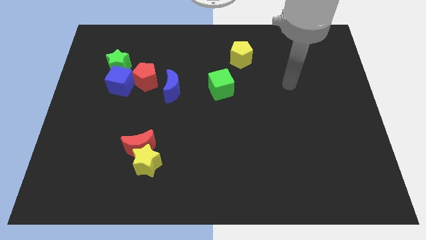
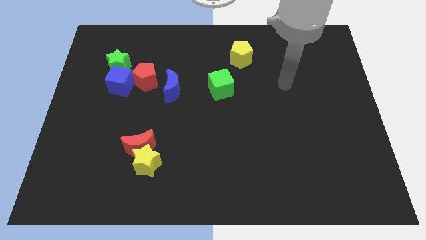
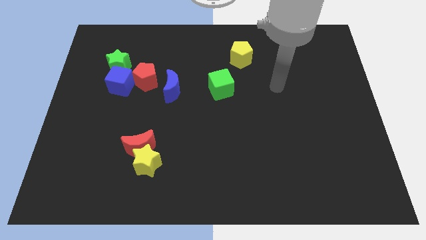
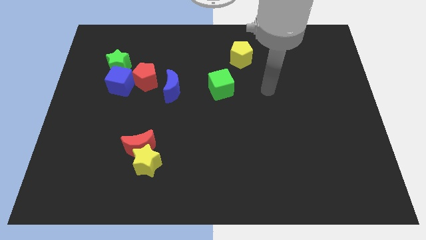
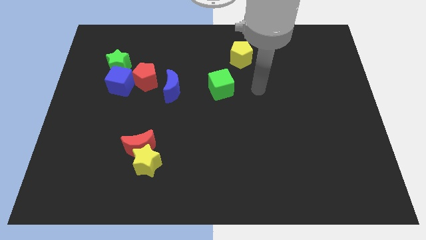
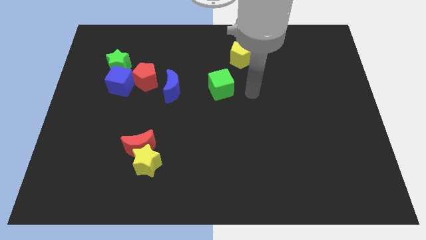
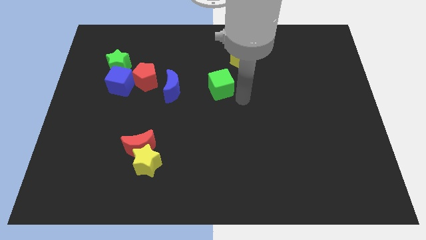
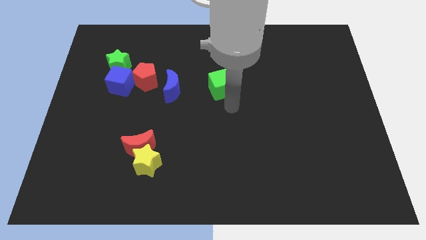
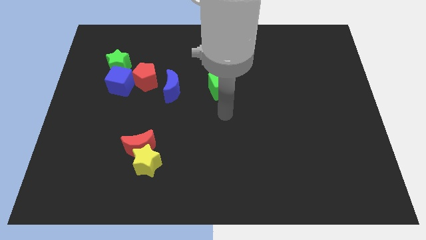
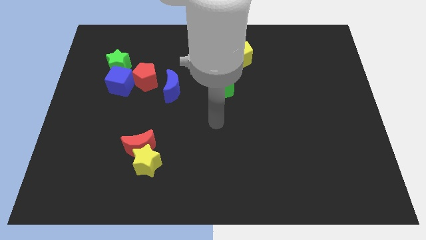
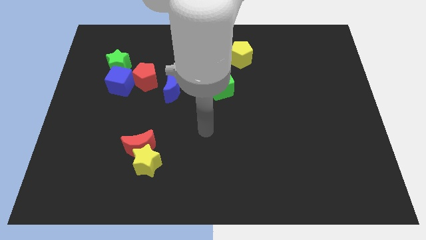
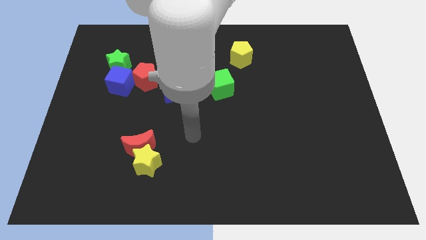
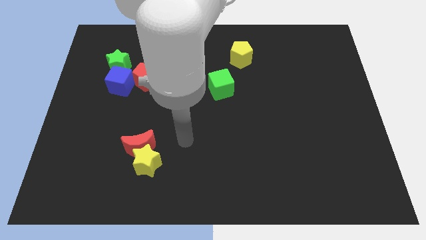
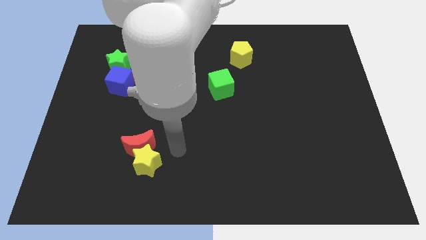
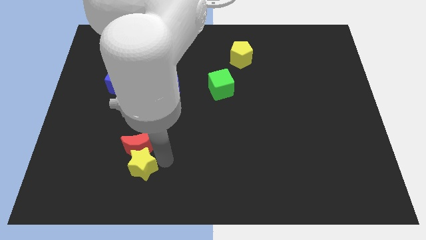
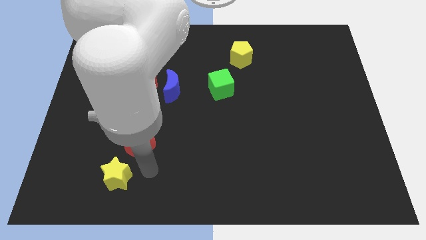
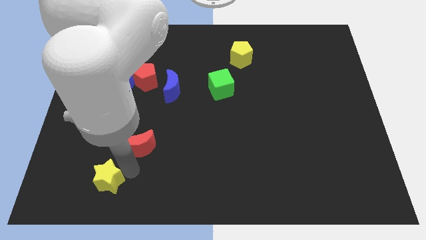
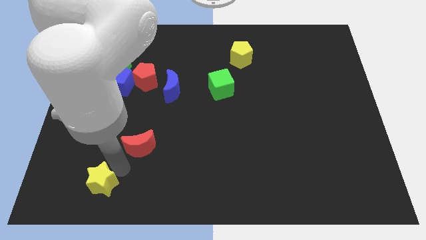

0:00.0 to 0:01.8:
separate the red moon from the yellow star

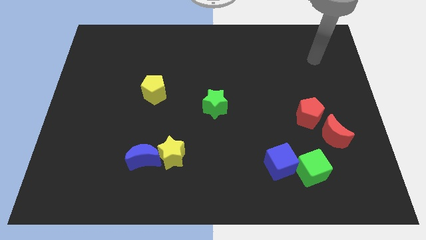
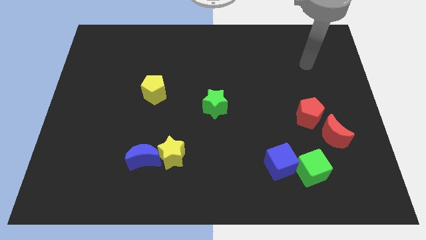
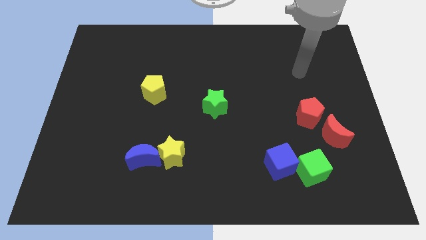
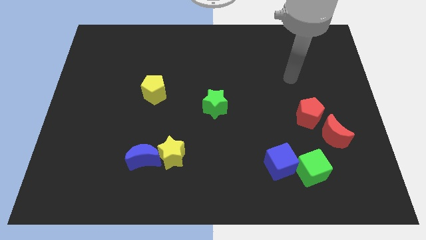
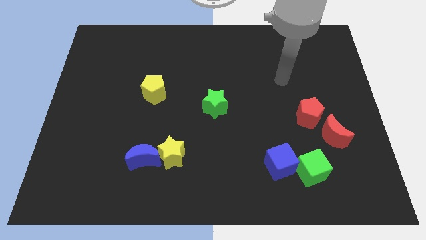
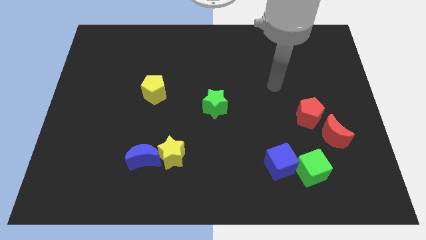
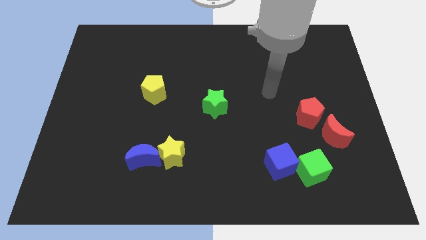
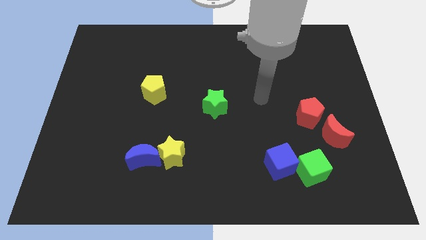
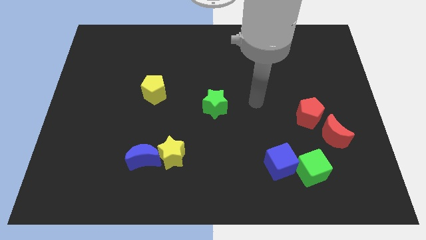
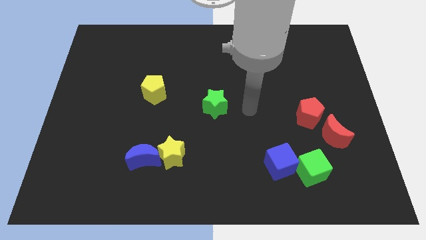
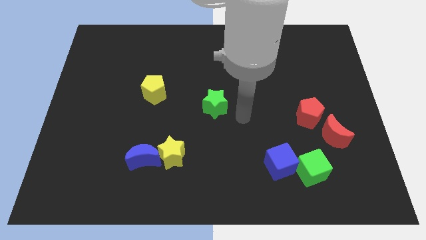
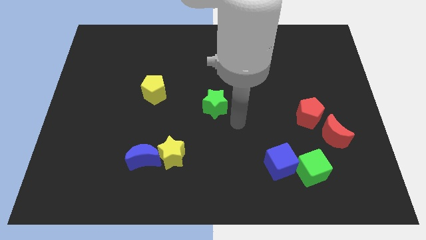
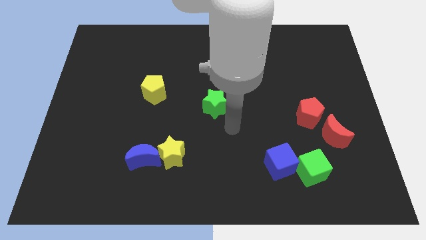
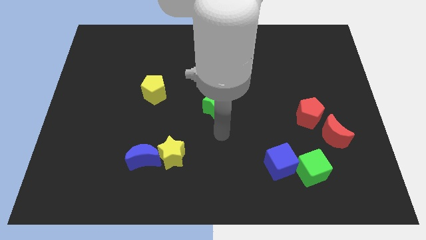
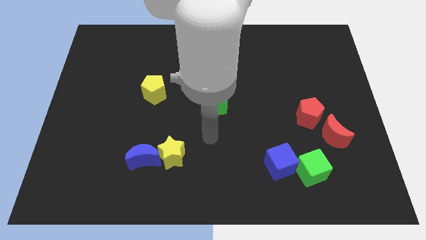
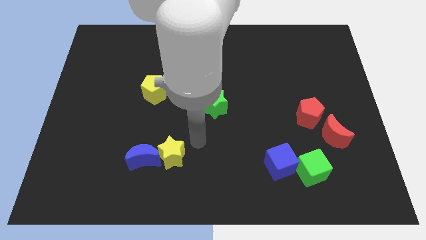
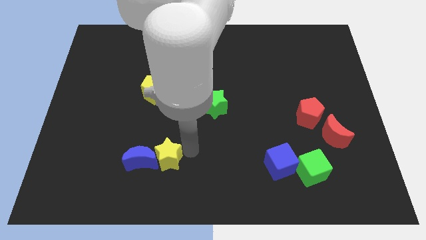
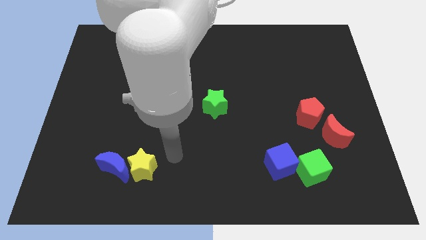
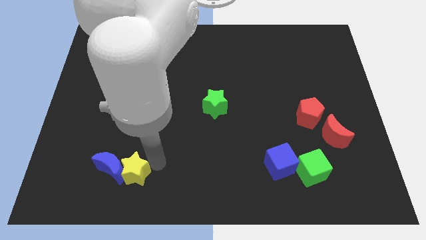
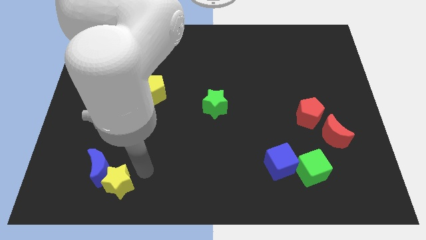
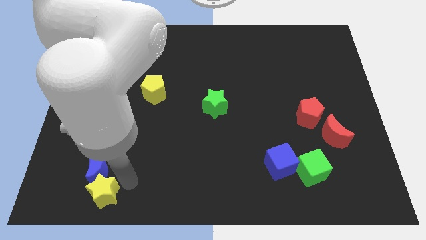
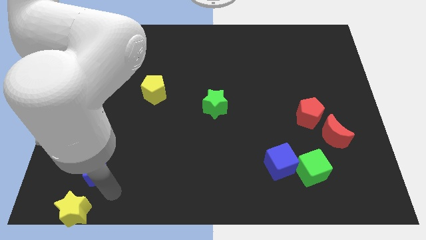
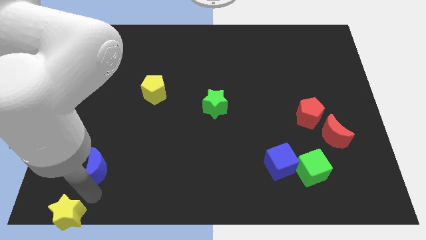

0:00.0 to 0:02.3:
pull the blue moon apart from the yellow star

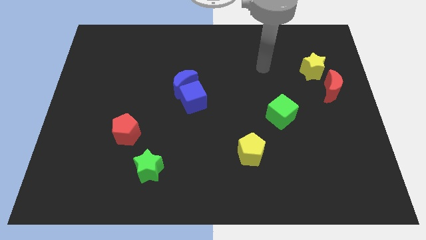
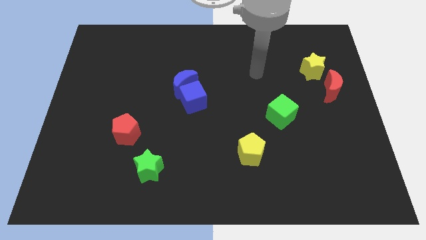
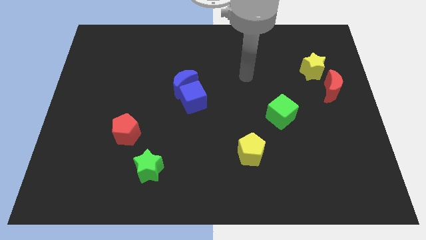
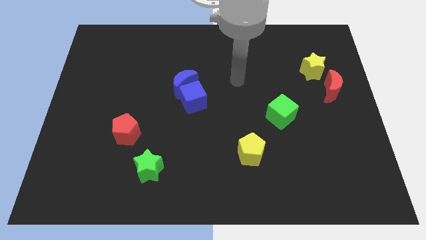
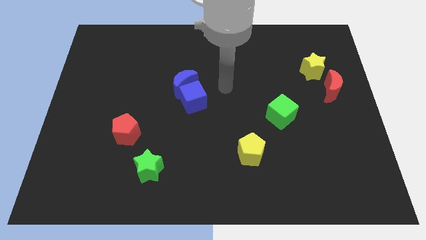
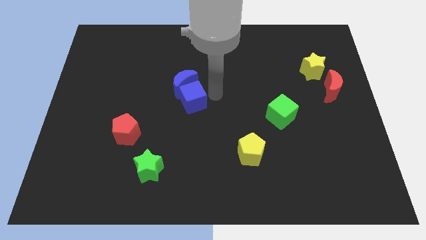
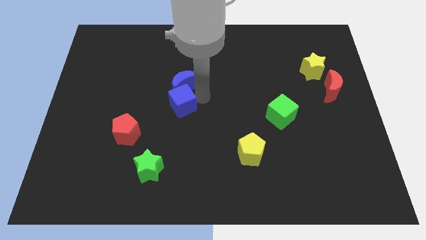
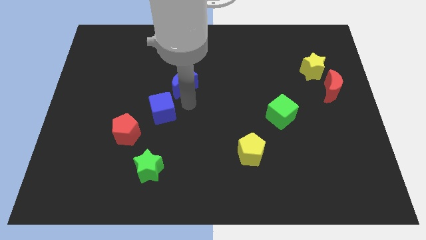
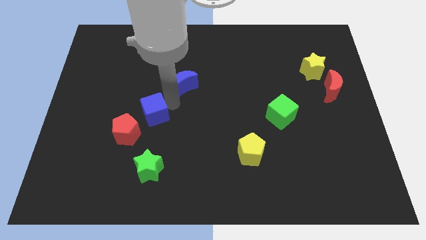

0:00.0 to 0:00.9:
move the blue moon away from the blue cube

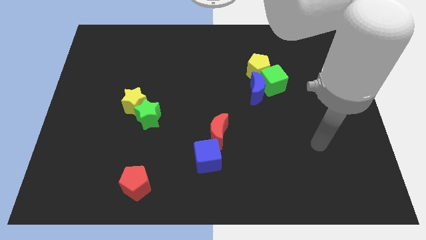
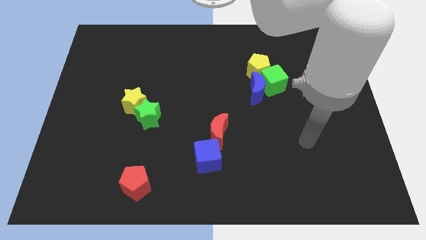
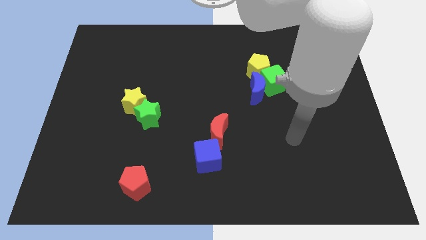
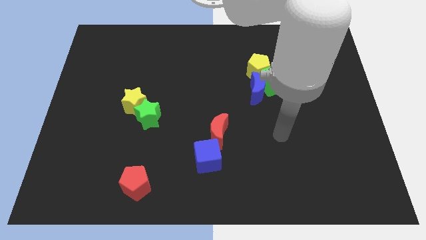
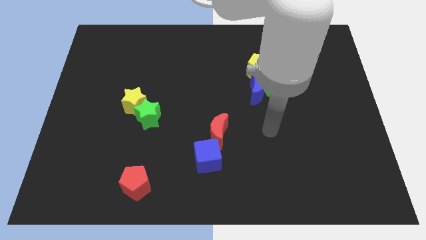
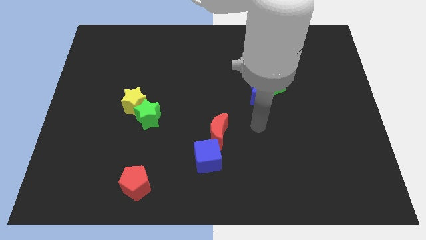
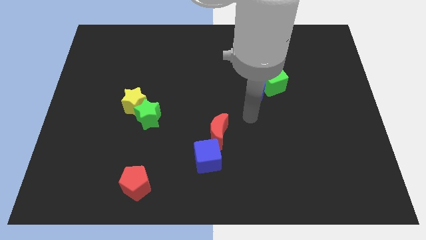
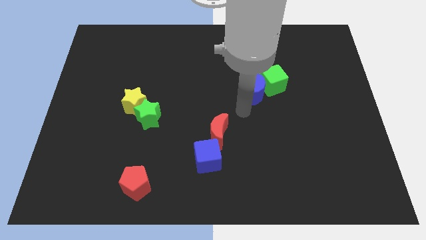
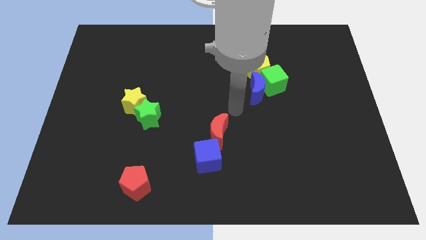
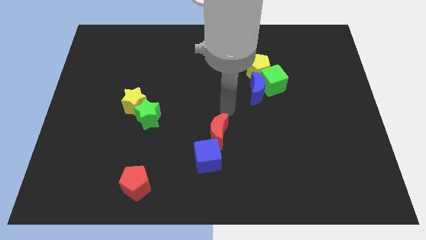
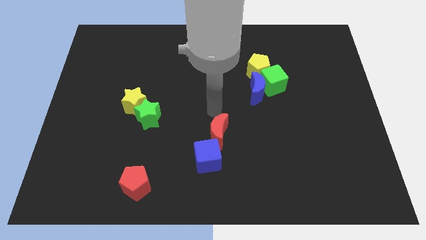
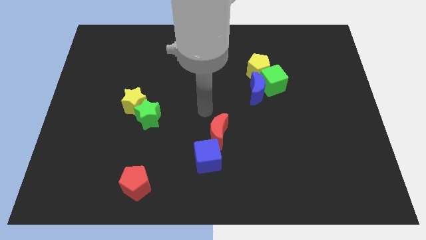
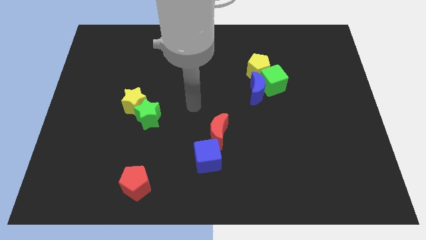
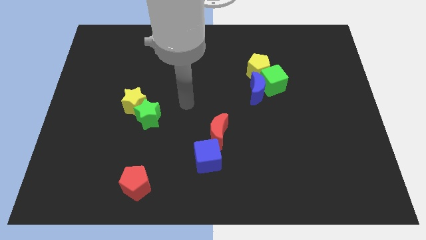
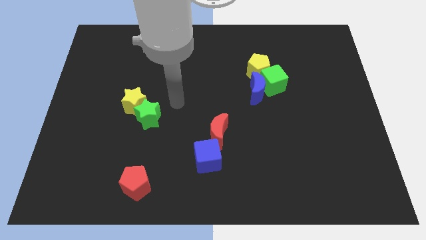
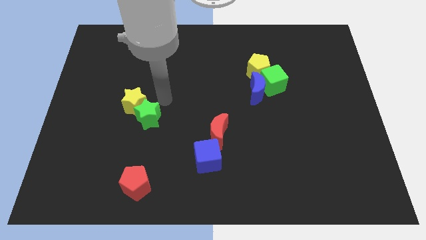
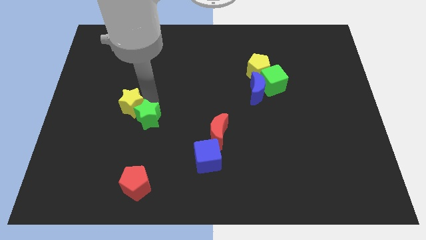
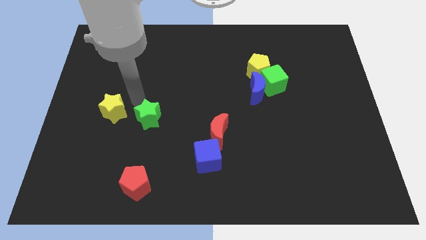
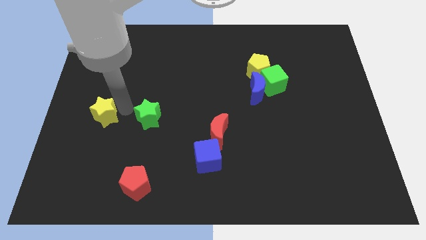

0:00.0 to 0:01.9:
move the green star away from the yellow star

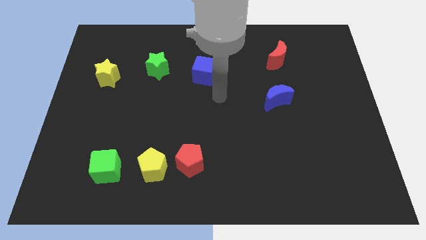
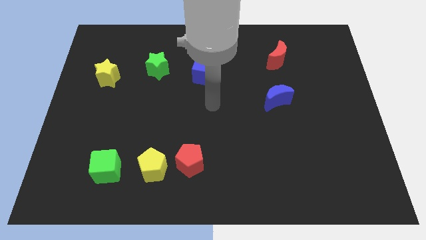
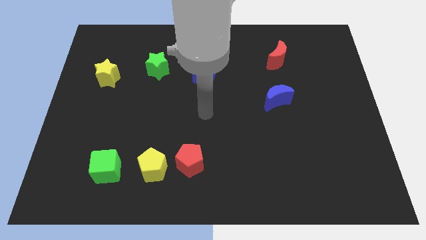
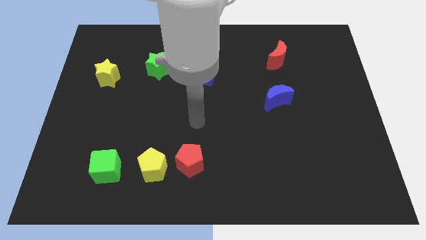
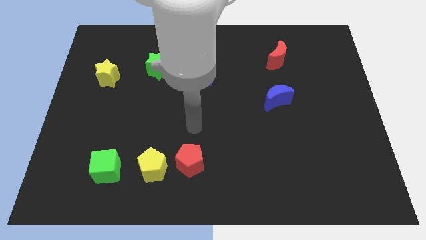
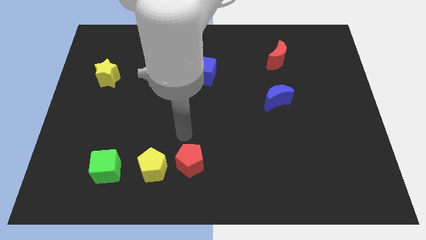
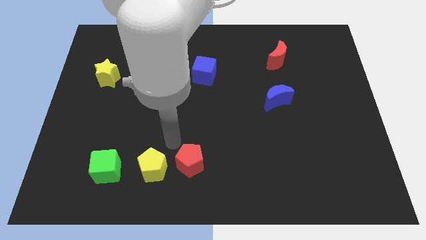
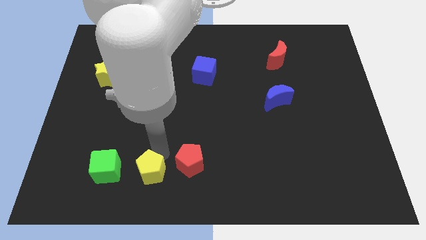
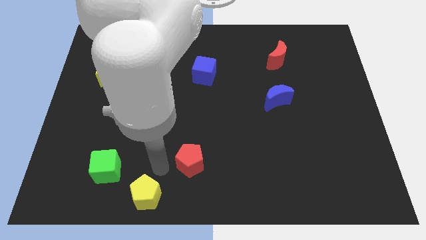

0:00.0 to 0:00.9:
move the red pentagon away from the yellow pentagon

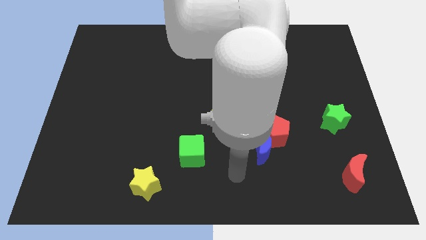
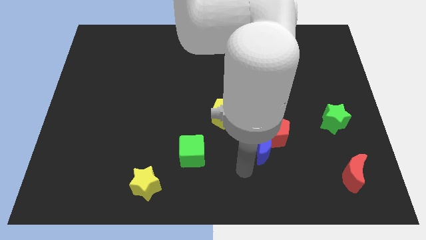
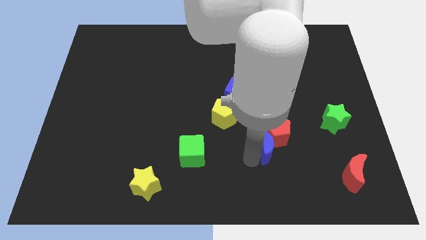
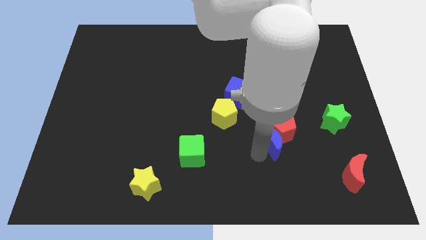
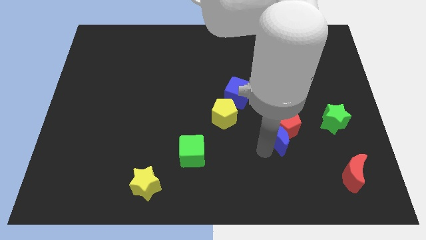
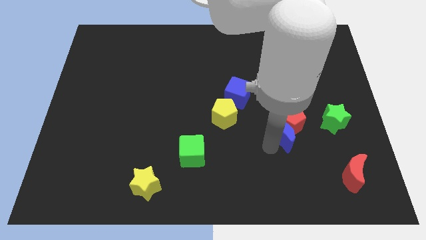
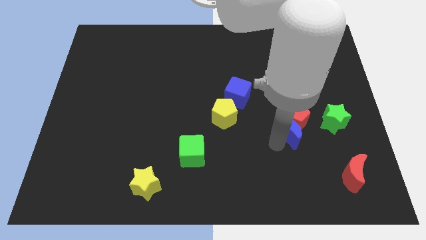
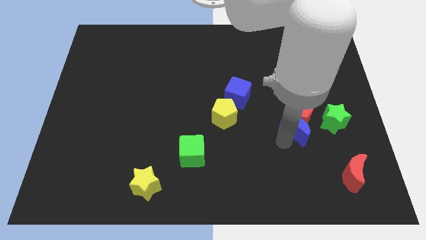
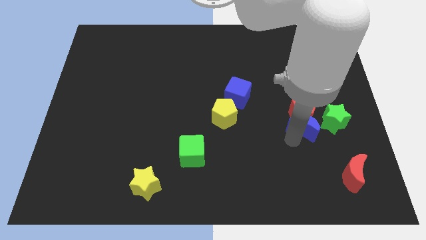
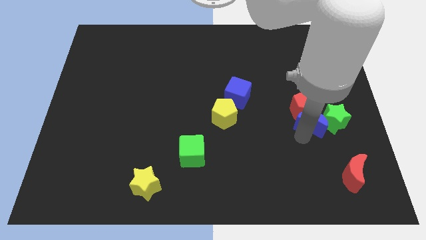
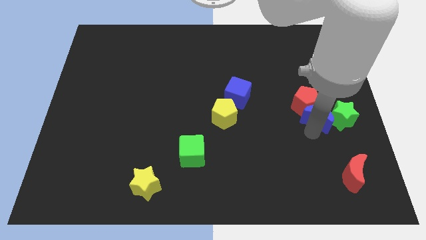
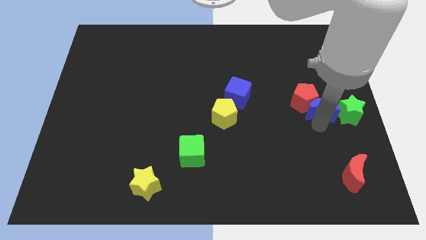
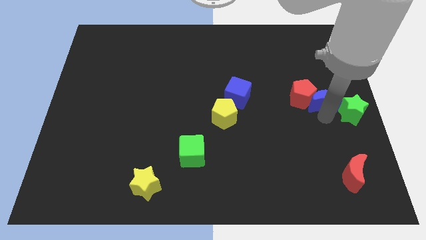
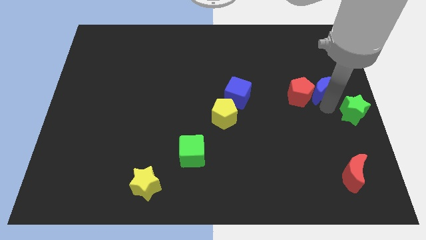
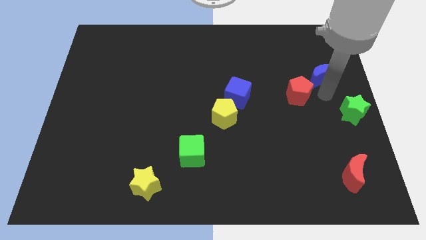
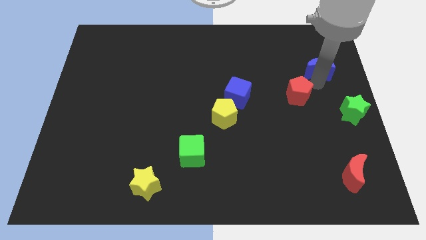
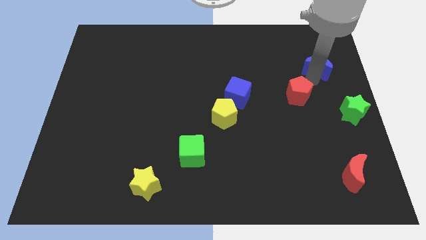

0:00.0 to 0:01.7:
separate the red pentagon from the blue moon
